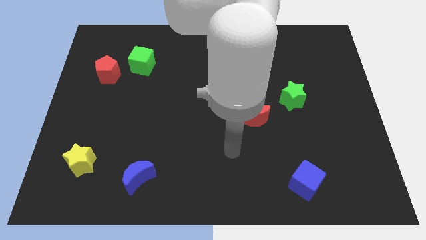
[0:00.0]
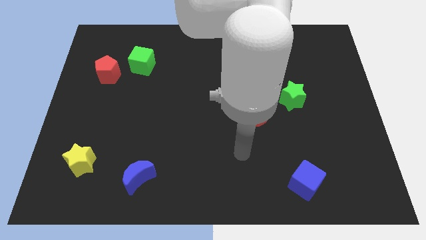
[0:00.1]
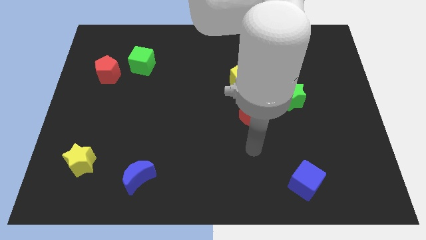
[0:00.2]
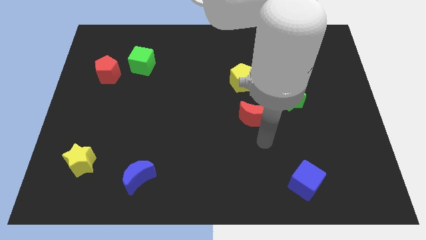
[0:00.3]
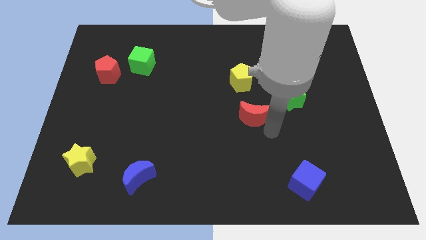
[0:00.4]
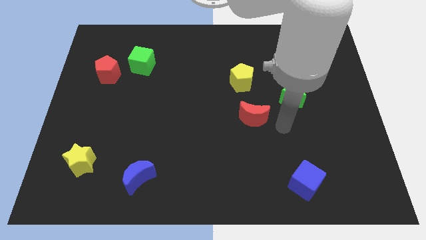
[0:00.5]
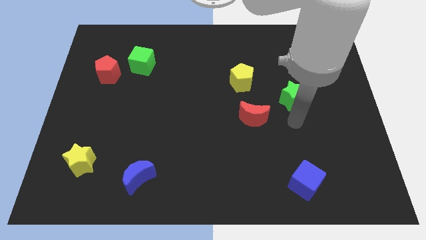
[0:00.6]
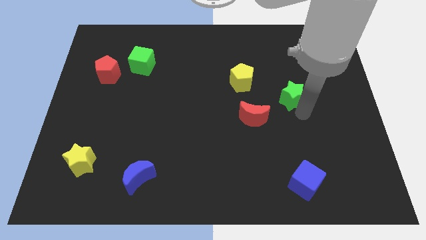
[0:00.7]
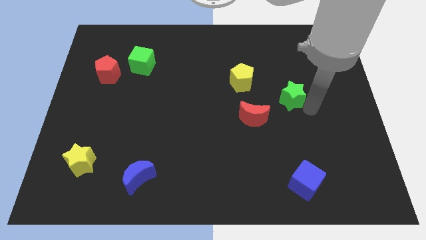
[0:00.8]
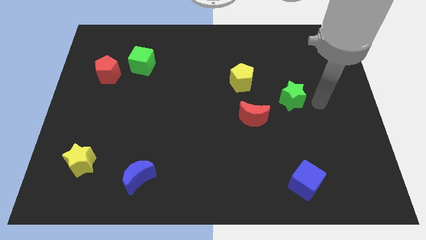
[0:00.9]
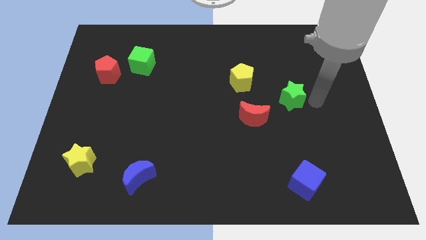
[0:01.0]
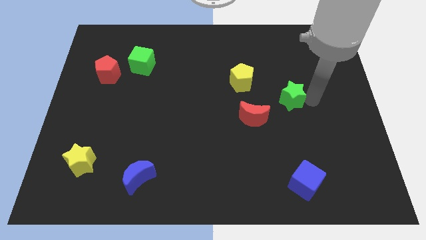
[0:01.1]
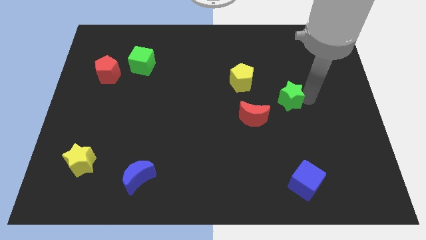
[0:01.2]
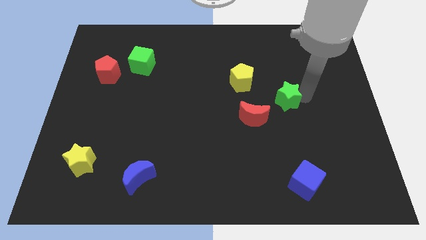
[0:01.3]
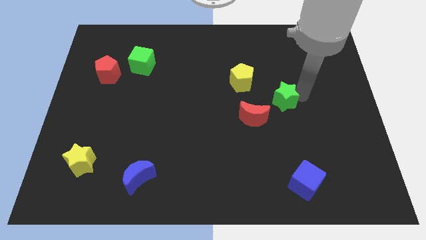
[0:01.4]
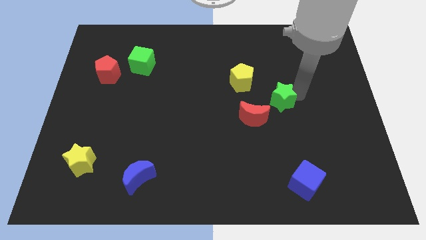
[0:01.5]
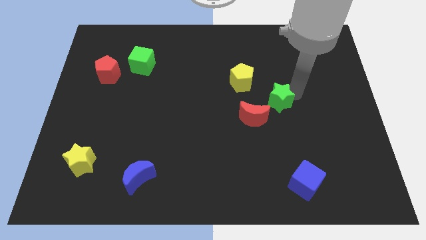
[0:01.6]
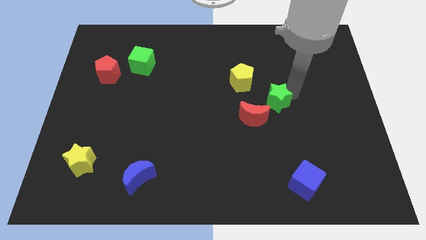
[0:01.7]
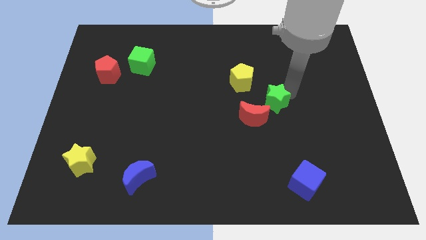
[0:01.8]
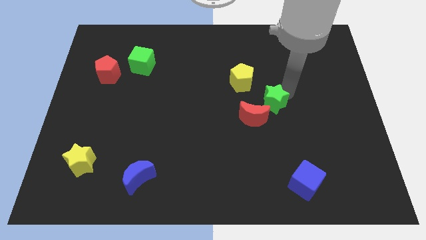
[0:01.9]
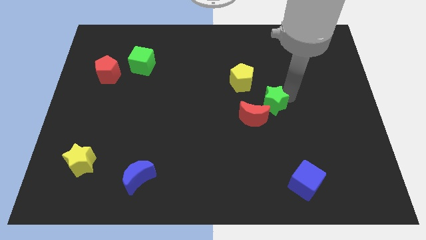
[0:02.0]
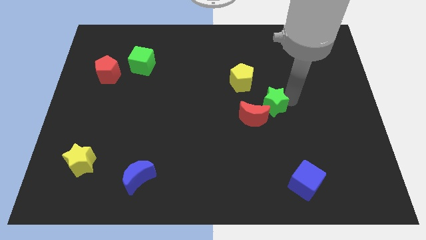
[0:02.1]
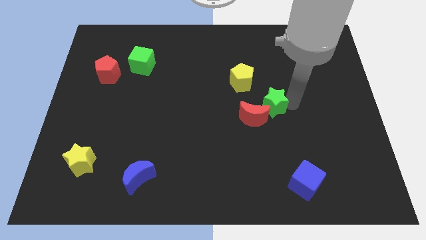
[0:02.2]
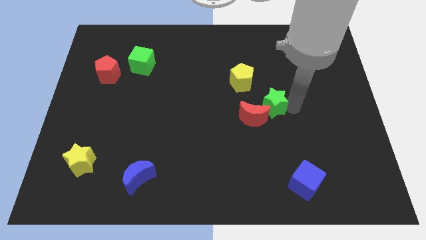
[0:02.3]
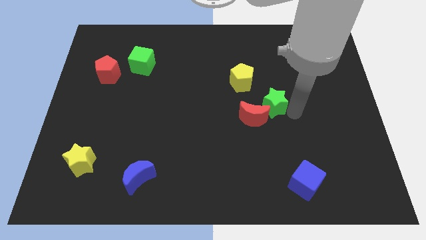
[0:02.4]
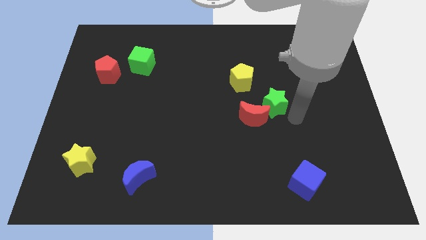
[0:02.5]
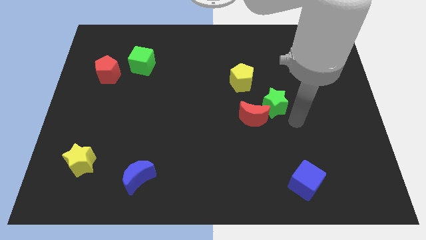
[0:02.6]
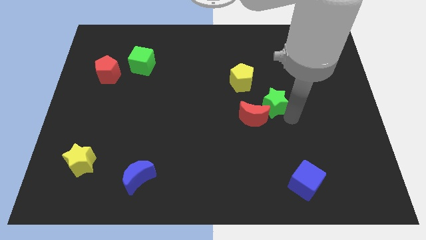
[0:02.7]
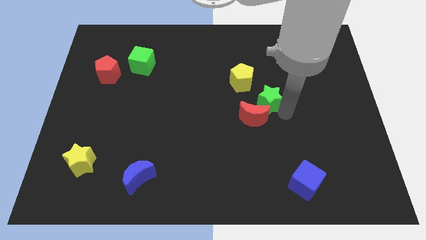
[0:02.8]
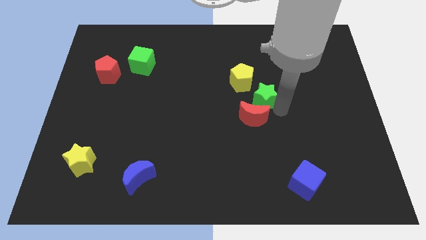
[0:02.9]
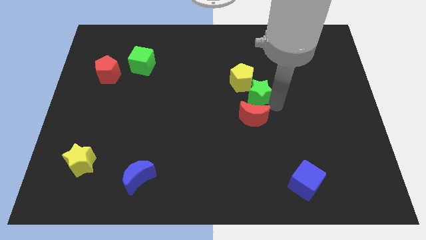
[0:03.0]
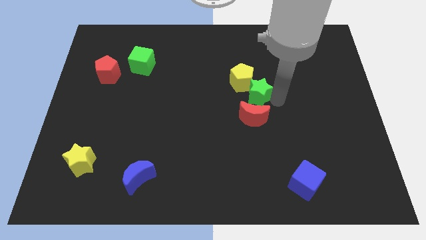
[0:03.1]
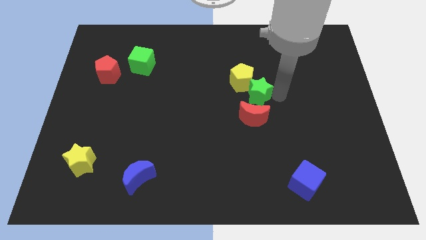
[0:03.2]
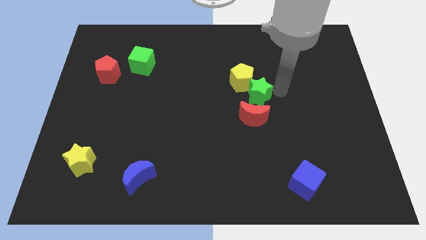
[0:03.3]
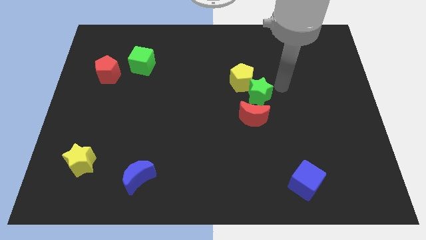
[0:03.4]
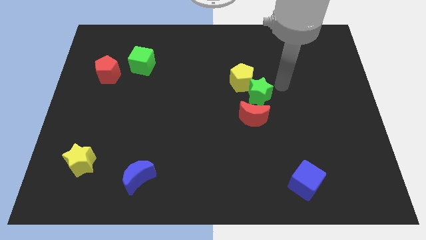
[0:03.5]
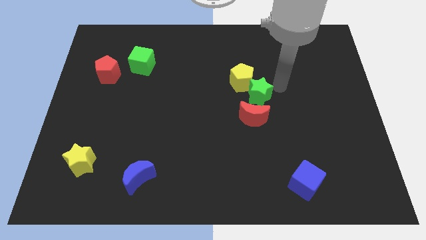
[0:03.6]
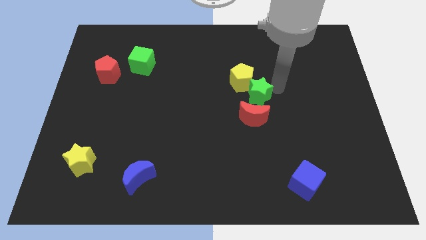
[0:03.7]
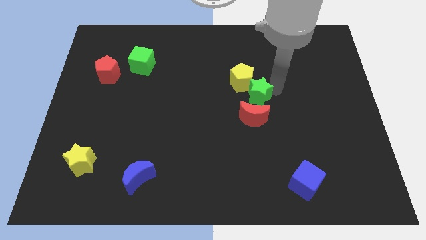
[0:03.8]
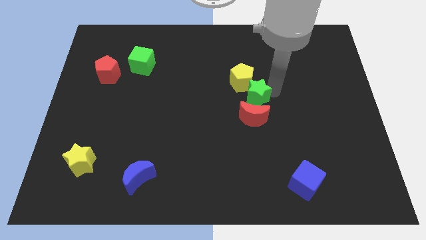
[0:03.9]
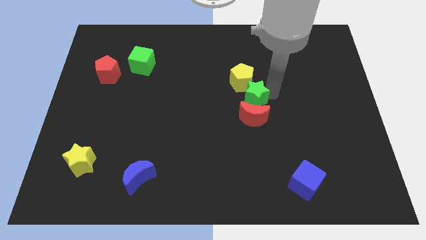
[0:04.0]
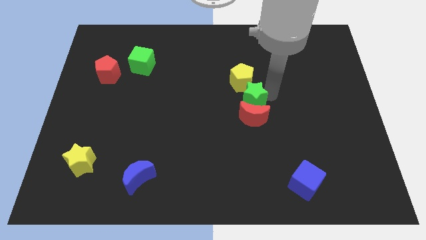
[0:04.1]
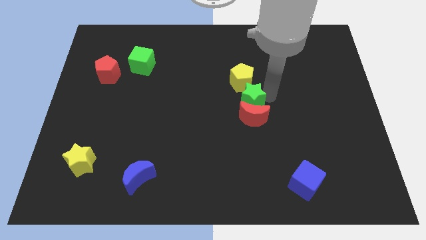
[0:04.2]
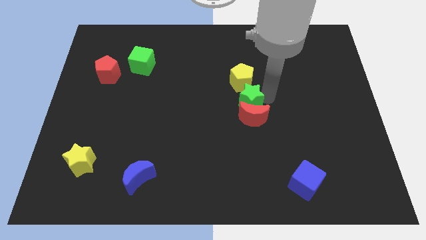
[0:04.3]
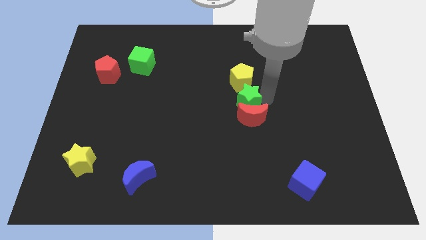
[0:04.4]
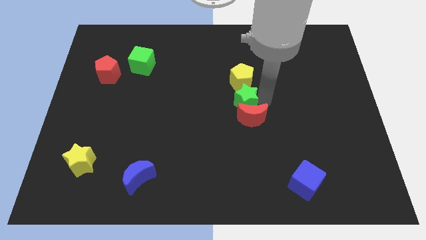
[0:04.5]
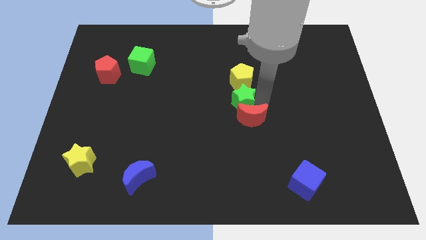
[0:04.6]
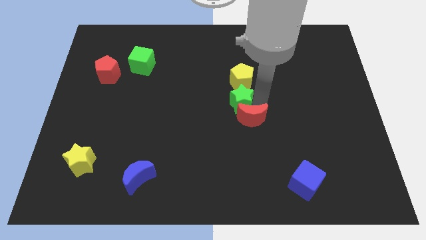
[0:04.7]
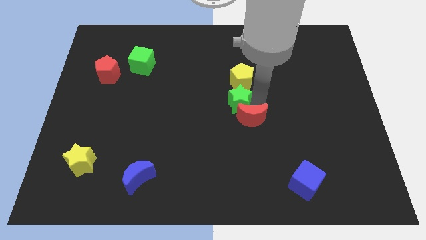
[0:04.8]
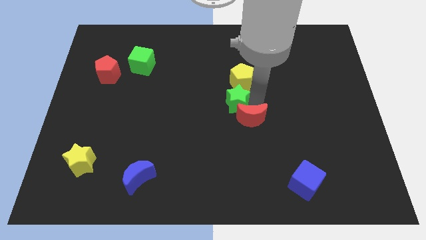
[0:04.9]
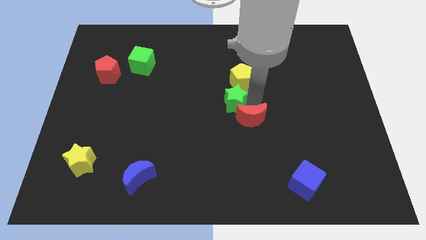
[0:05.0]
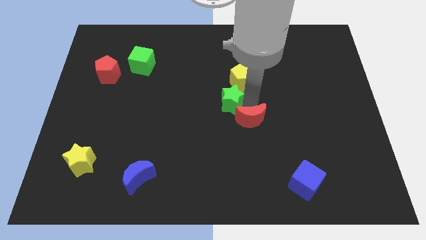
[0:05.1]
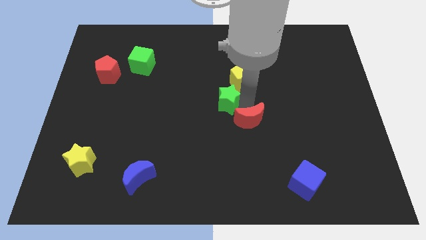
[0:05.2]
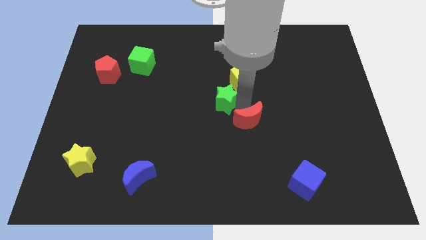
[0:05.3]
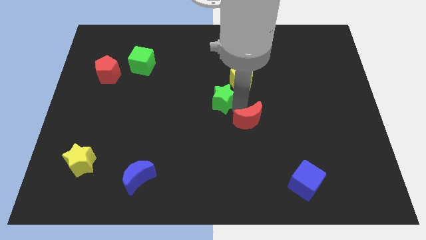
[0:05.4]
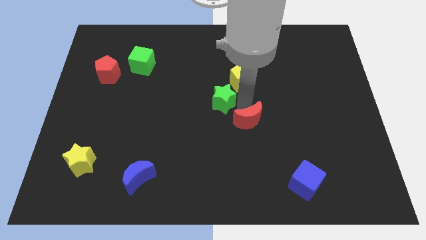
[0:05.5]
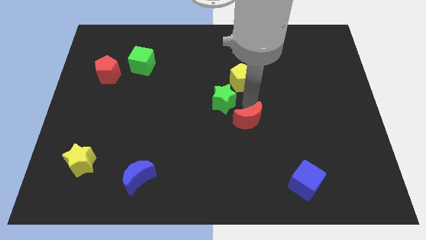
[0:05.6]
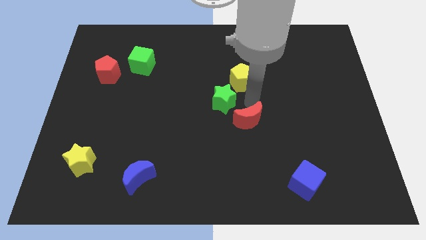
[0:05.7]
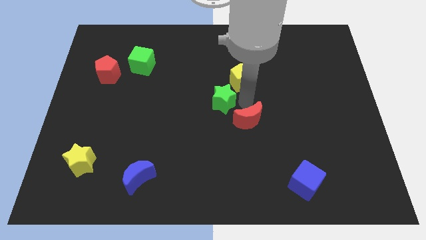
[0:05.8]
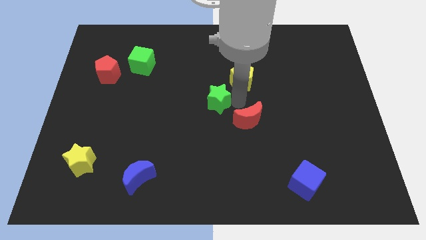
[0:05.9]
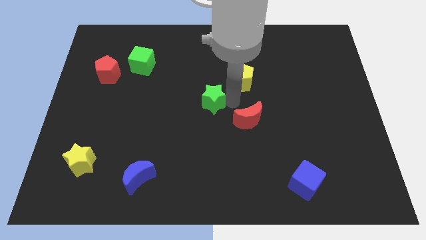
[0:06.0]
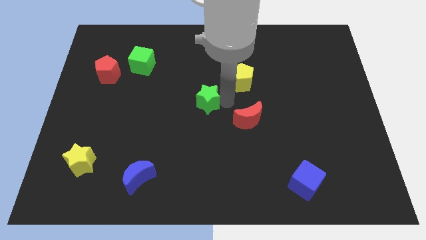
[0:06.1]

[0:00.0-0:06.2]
push the green star to the left

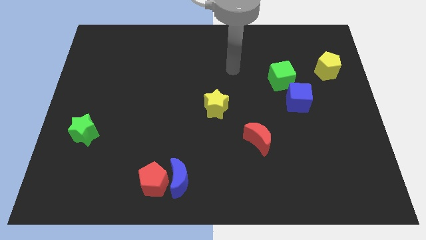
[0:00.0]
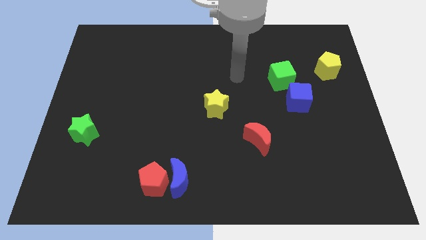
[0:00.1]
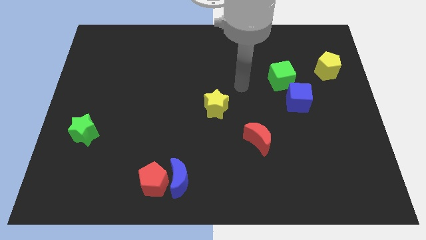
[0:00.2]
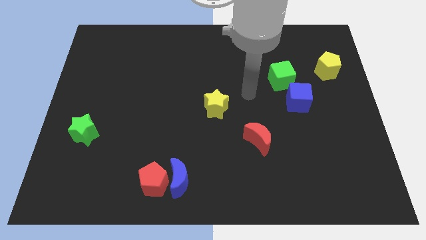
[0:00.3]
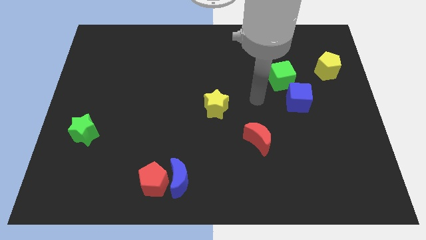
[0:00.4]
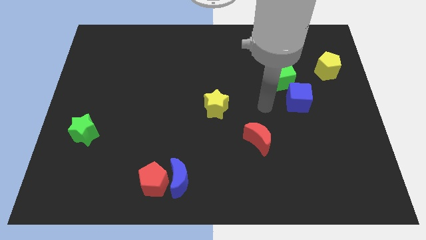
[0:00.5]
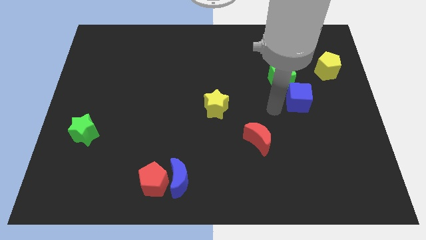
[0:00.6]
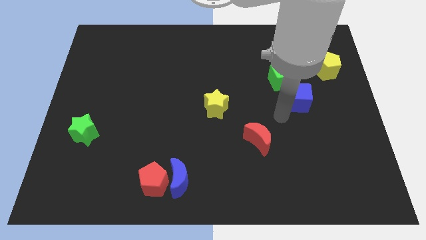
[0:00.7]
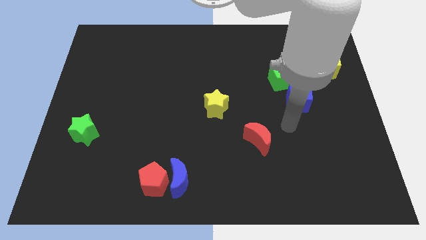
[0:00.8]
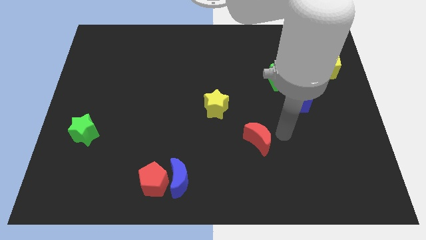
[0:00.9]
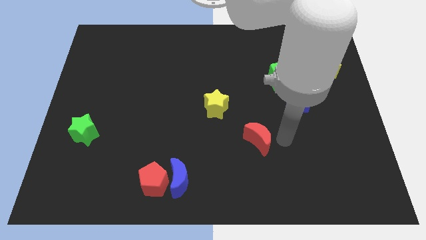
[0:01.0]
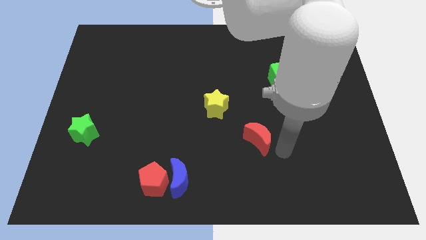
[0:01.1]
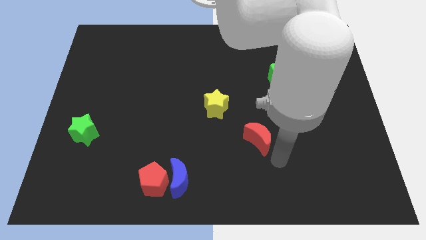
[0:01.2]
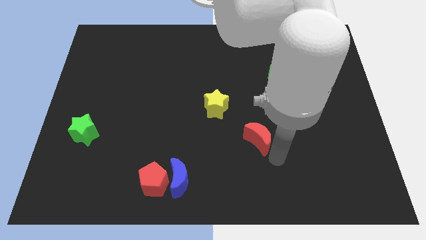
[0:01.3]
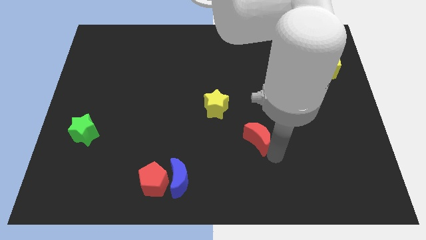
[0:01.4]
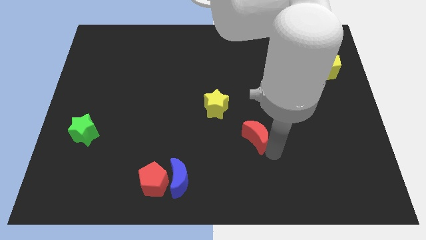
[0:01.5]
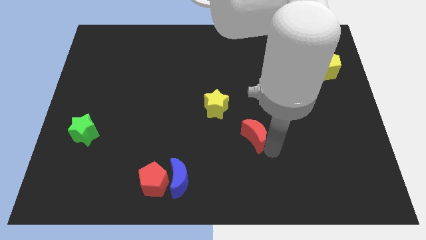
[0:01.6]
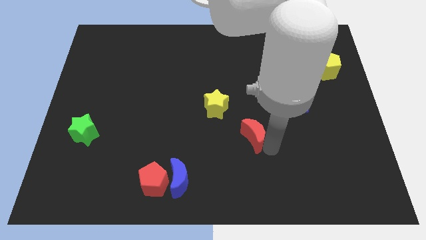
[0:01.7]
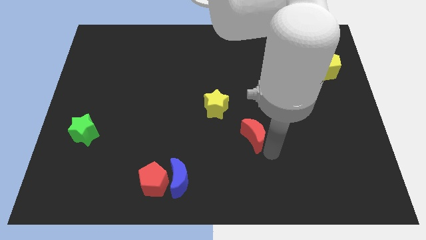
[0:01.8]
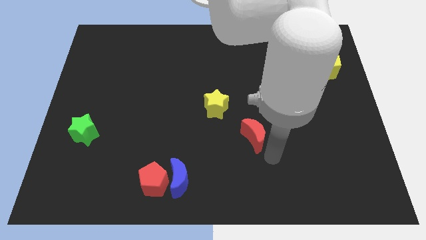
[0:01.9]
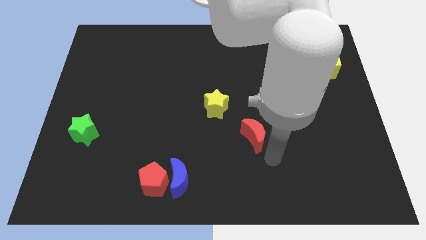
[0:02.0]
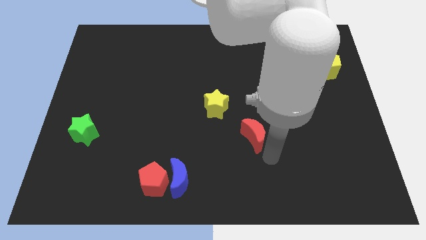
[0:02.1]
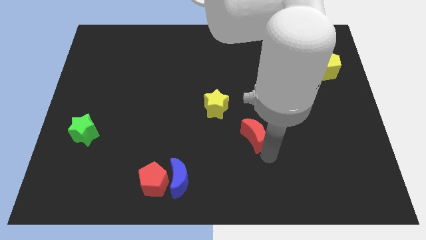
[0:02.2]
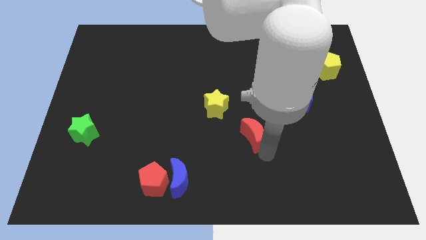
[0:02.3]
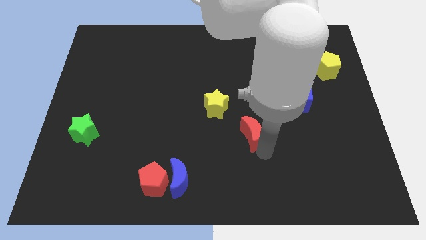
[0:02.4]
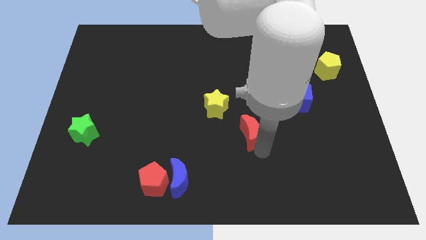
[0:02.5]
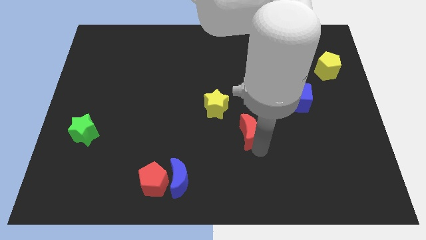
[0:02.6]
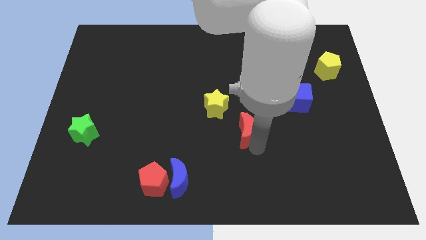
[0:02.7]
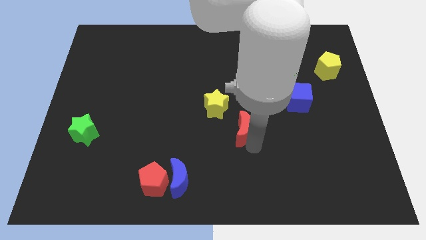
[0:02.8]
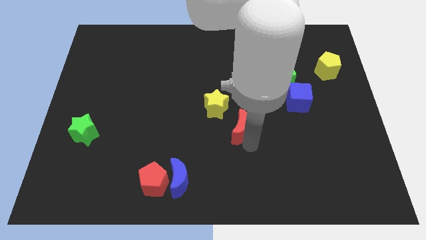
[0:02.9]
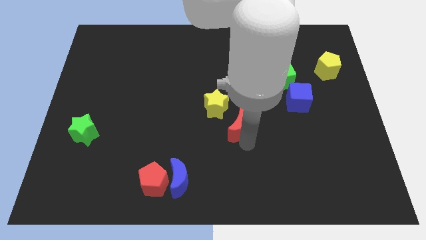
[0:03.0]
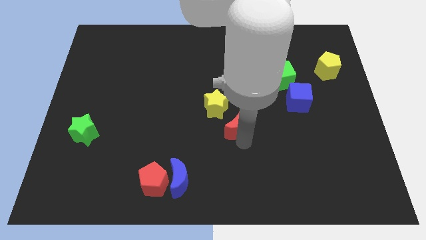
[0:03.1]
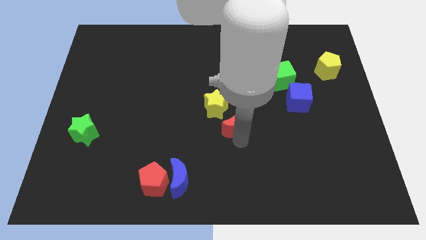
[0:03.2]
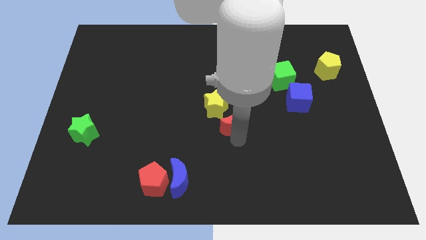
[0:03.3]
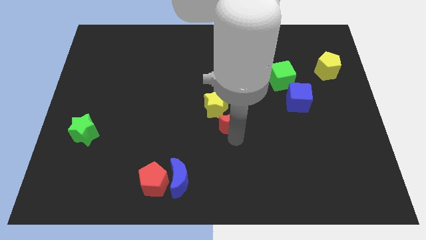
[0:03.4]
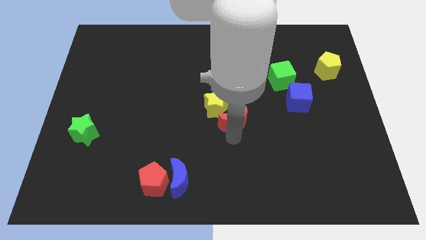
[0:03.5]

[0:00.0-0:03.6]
push the red moon up and to the left a bit
